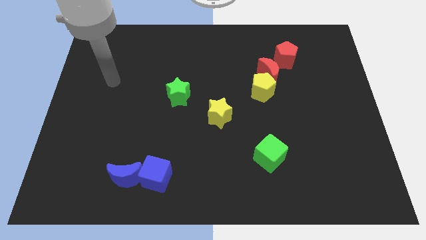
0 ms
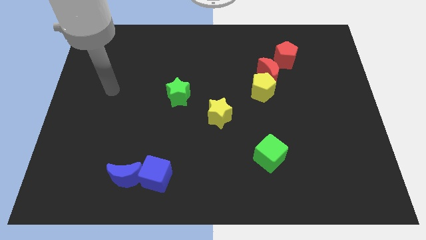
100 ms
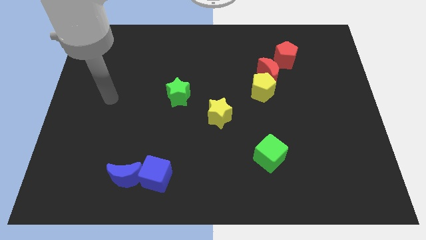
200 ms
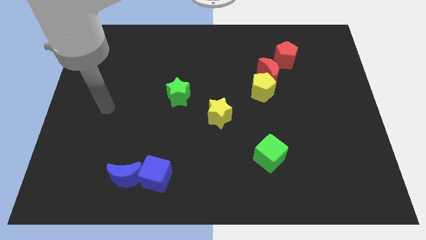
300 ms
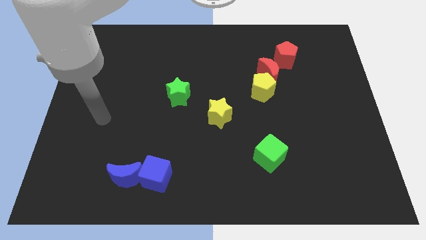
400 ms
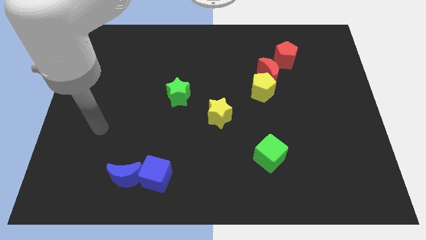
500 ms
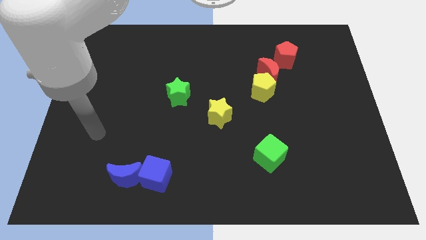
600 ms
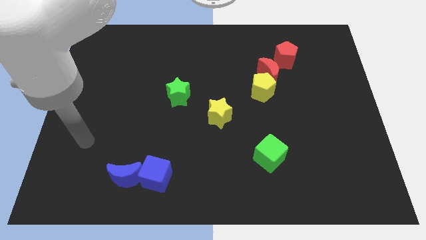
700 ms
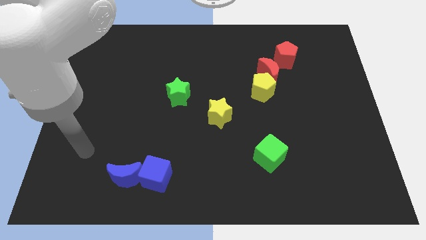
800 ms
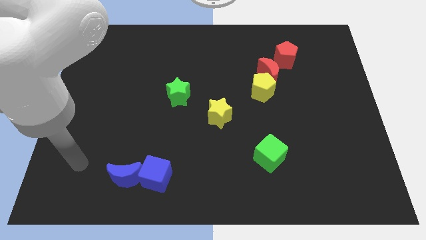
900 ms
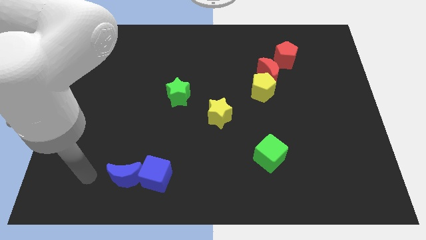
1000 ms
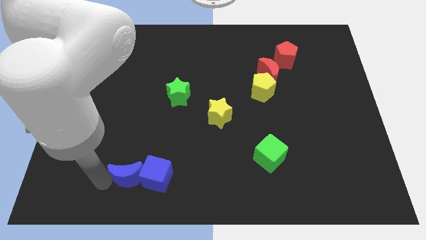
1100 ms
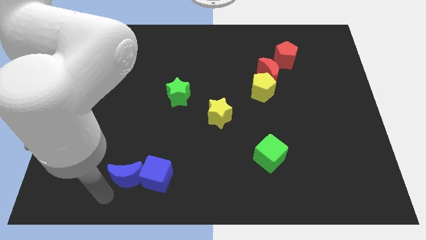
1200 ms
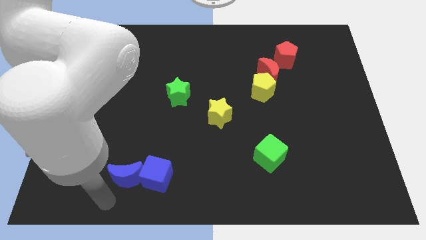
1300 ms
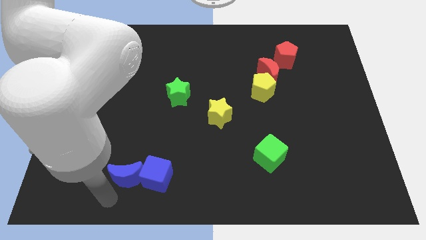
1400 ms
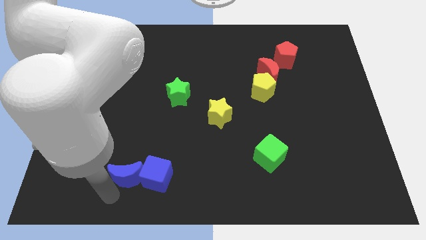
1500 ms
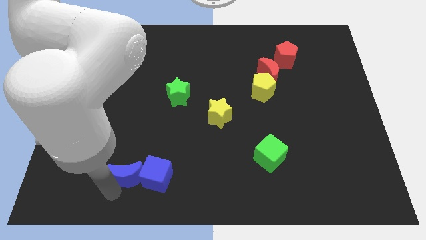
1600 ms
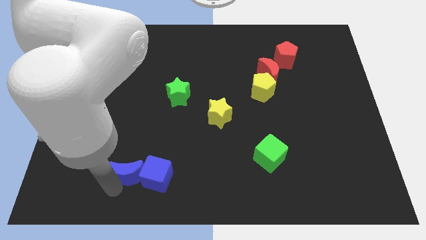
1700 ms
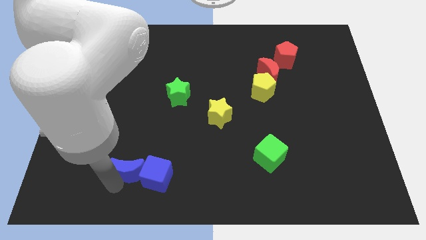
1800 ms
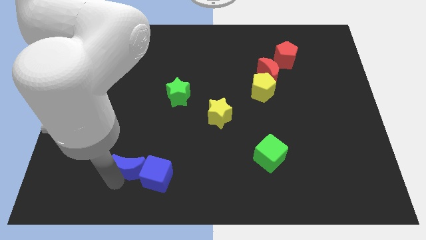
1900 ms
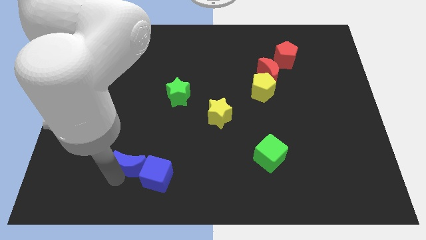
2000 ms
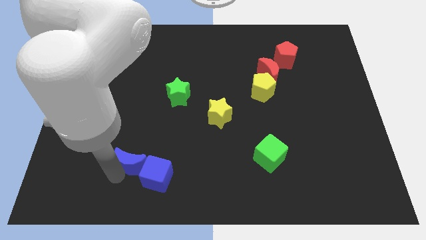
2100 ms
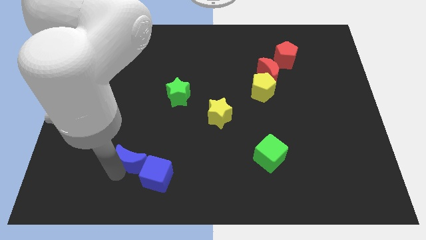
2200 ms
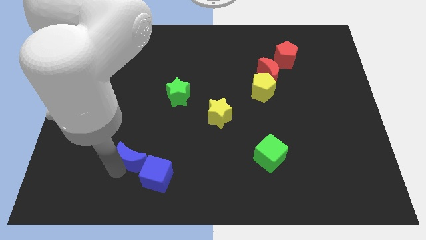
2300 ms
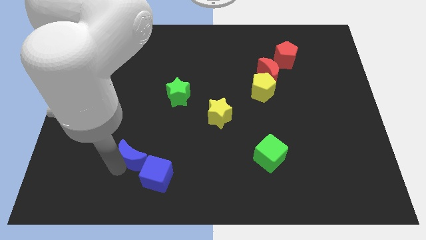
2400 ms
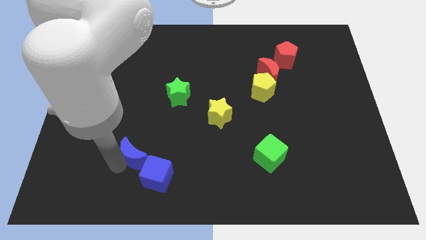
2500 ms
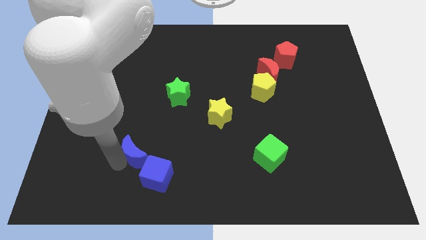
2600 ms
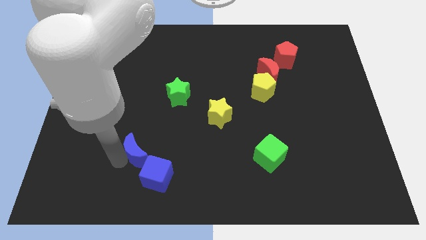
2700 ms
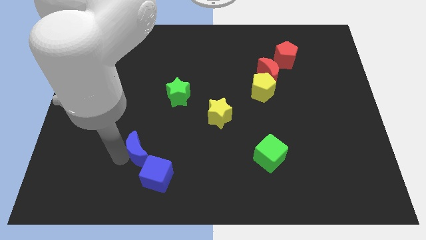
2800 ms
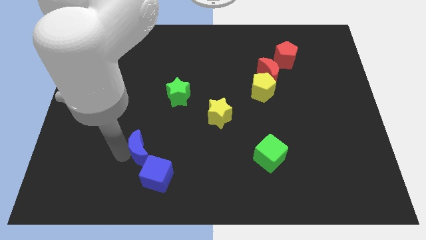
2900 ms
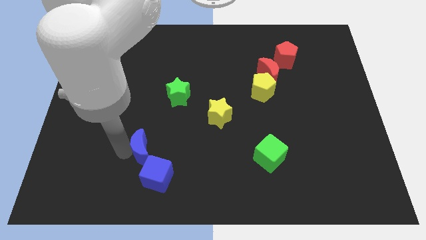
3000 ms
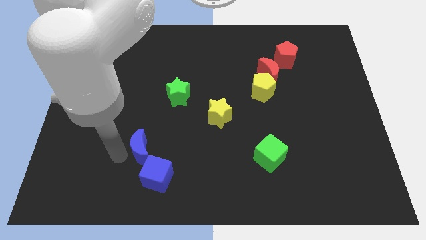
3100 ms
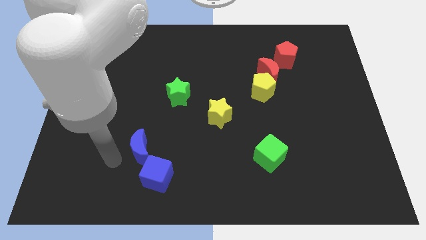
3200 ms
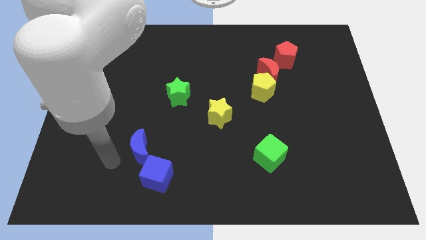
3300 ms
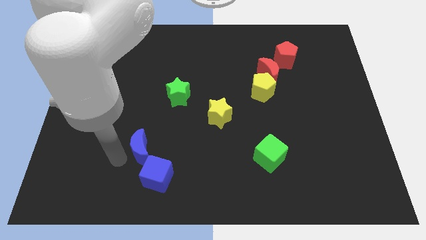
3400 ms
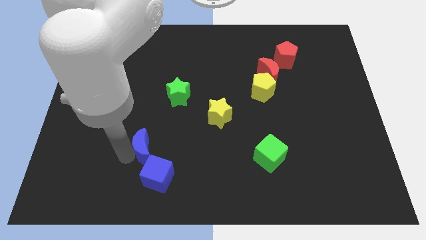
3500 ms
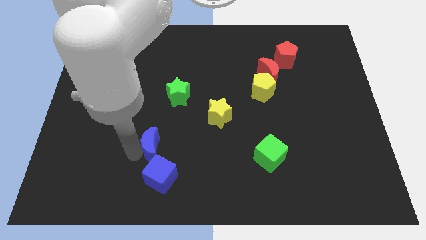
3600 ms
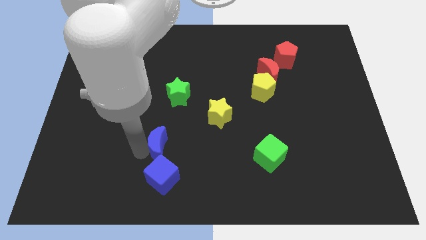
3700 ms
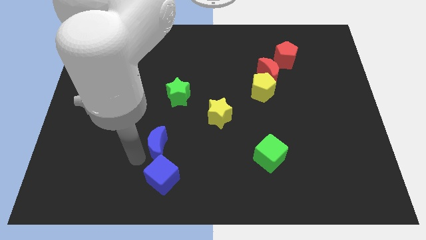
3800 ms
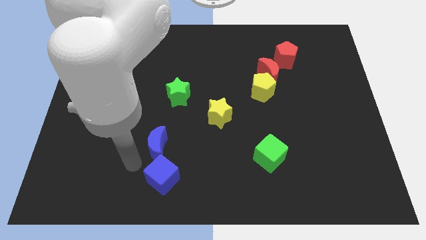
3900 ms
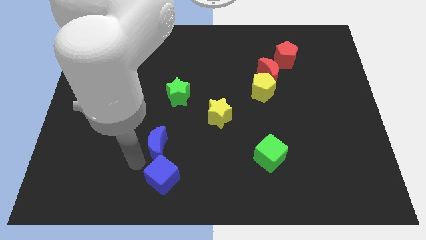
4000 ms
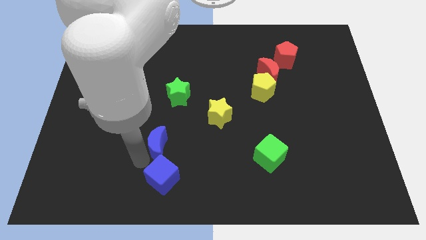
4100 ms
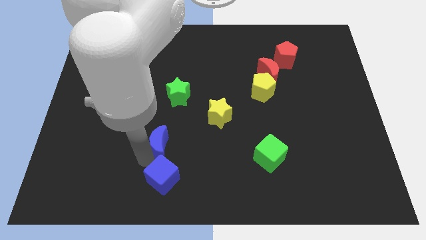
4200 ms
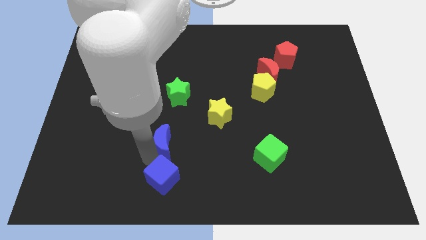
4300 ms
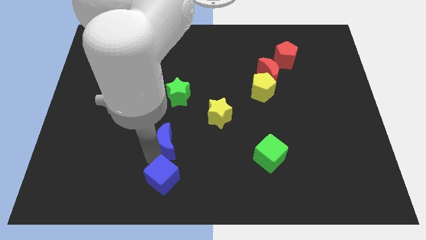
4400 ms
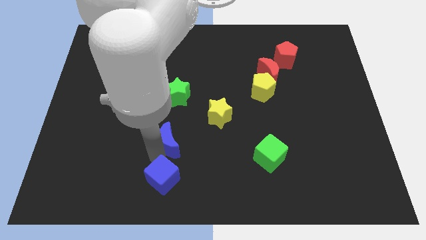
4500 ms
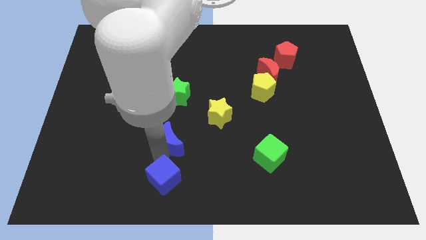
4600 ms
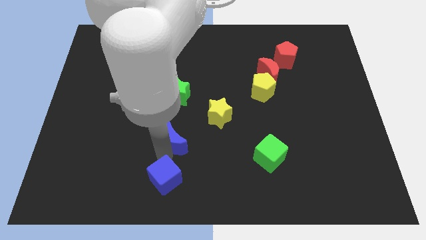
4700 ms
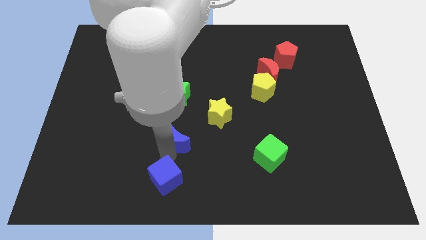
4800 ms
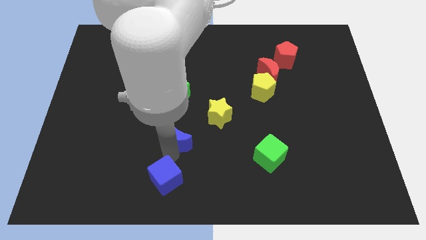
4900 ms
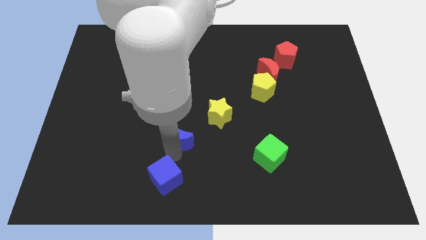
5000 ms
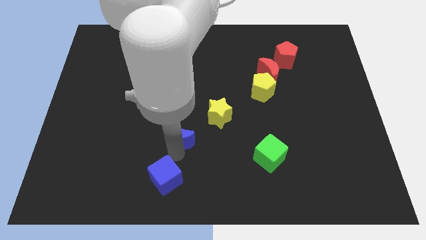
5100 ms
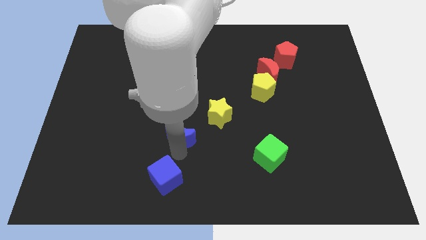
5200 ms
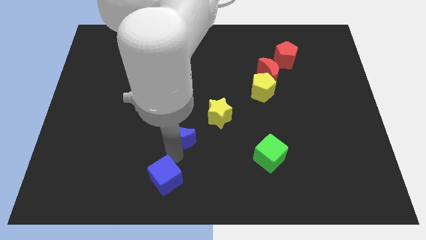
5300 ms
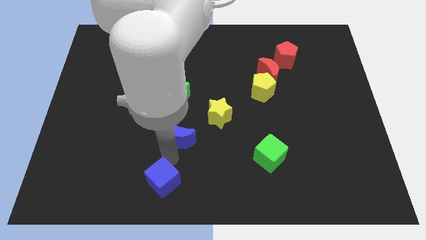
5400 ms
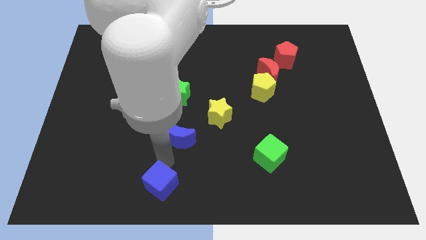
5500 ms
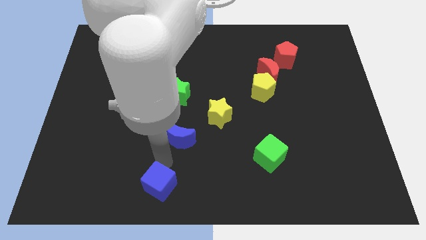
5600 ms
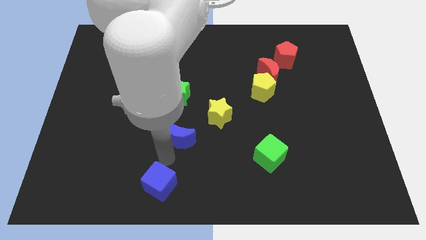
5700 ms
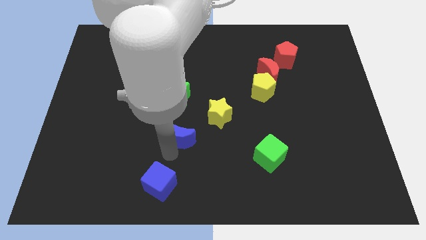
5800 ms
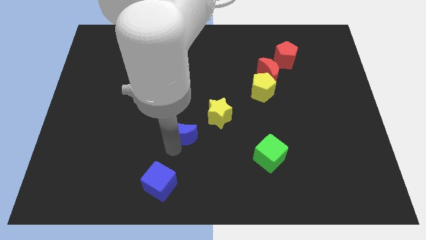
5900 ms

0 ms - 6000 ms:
move the blue moon to the middle of the board
